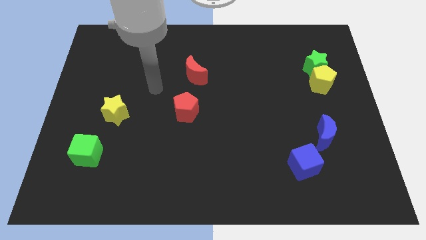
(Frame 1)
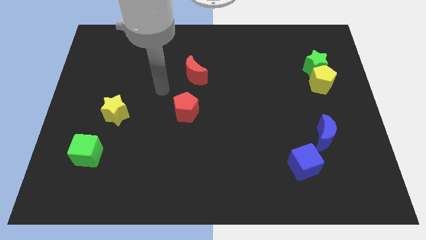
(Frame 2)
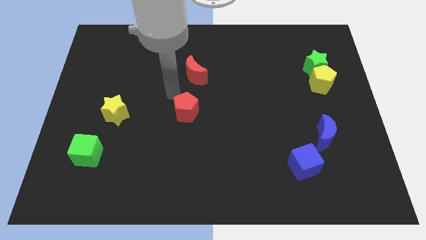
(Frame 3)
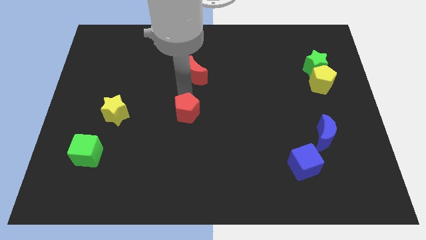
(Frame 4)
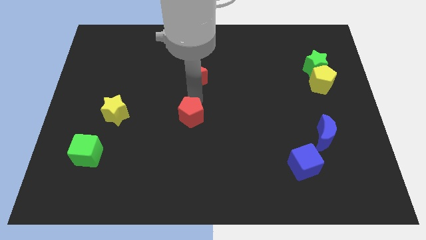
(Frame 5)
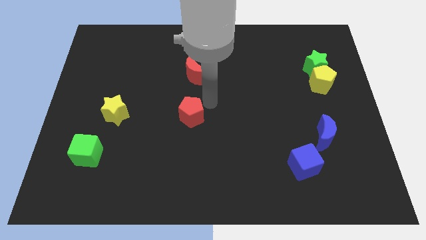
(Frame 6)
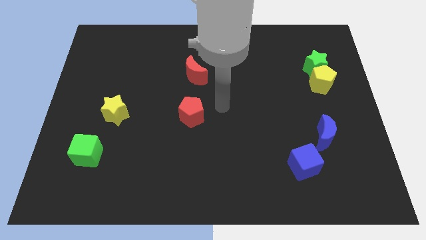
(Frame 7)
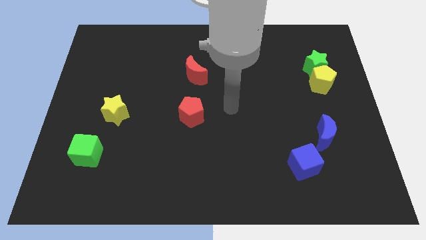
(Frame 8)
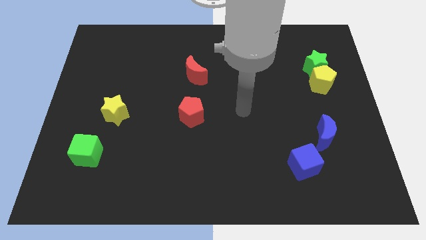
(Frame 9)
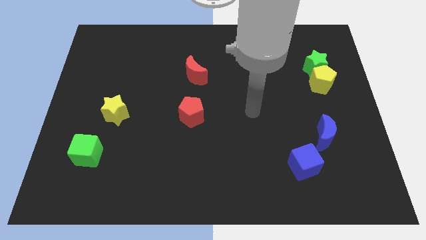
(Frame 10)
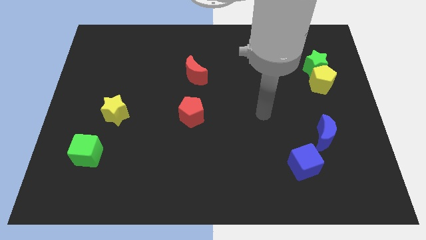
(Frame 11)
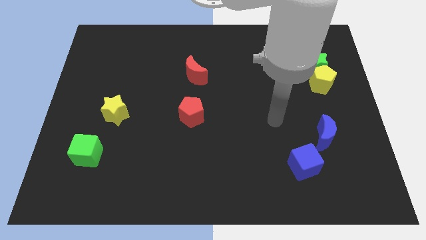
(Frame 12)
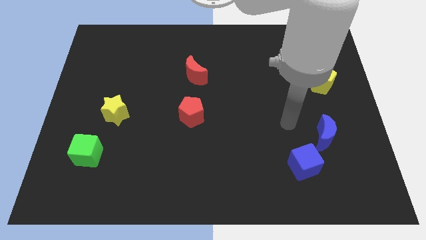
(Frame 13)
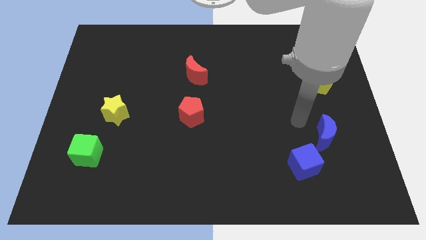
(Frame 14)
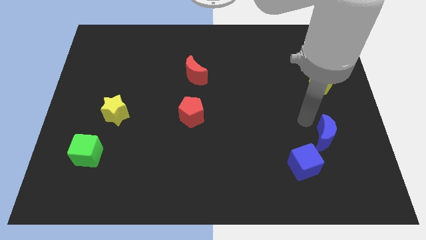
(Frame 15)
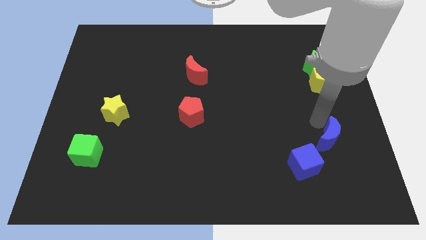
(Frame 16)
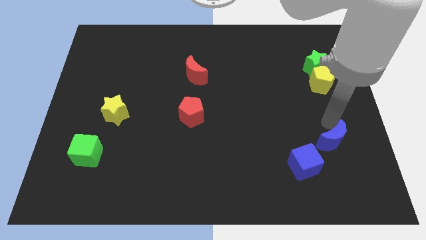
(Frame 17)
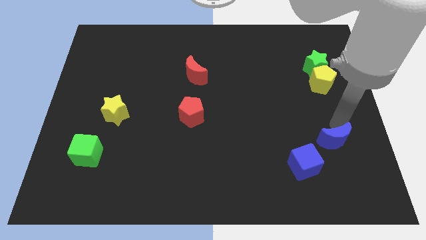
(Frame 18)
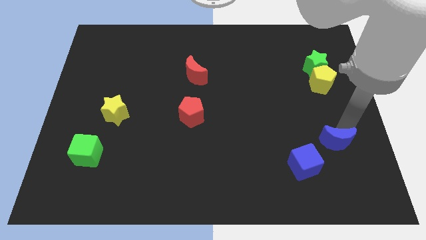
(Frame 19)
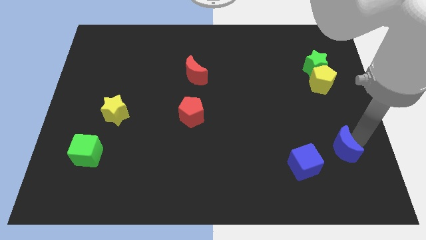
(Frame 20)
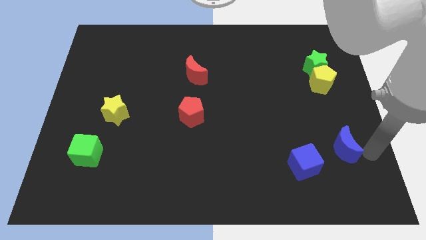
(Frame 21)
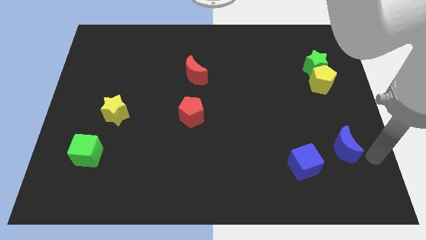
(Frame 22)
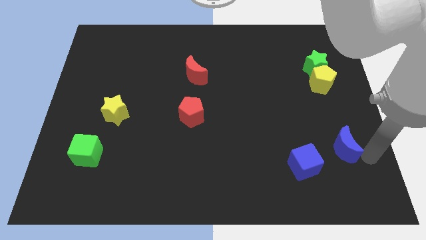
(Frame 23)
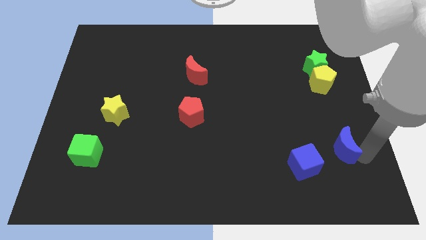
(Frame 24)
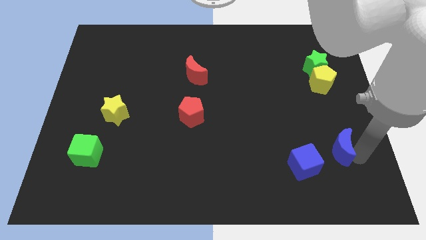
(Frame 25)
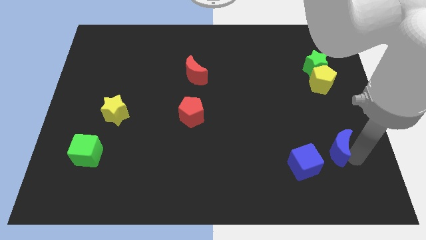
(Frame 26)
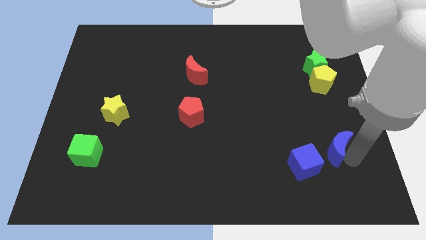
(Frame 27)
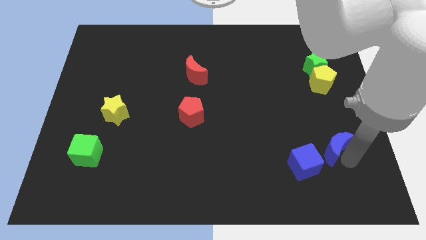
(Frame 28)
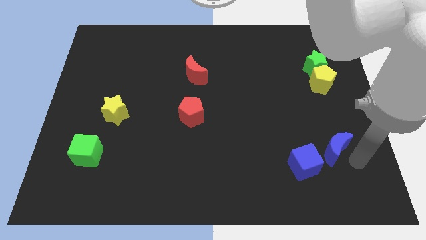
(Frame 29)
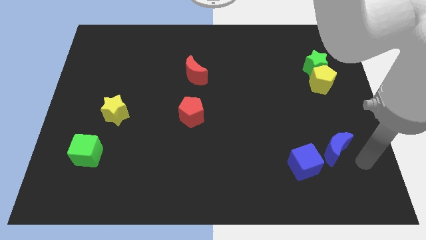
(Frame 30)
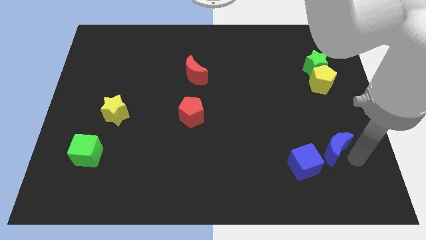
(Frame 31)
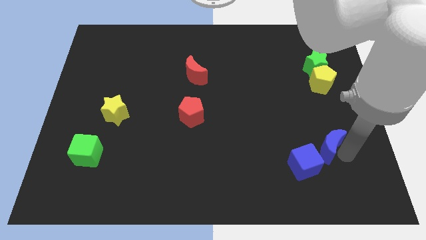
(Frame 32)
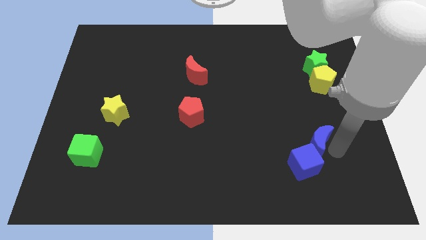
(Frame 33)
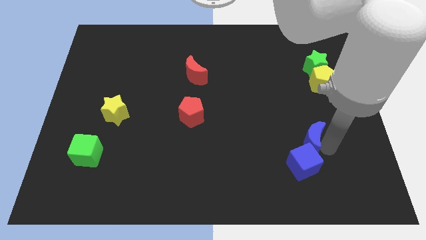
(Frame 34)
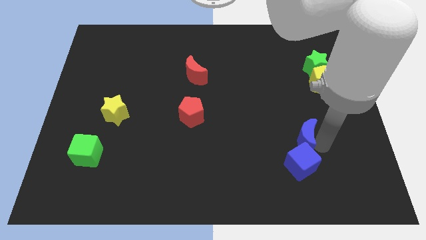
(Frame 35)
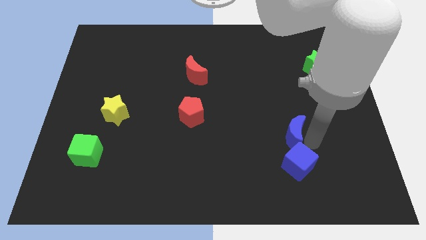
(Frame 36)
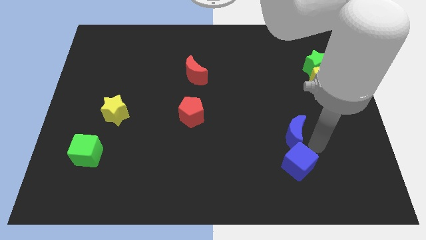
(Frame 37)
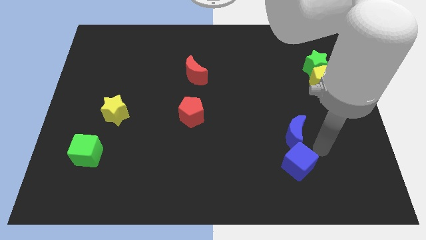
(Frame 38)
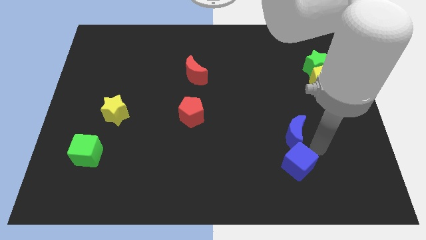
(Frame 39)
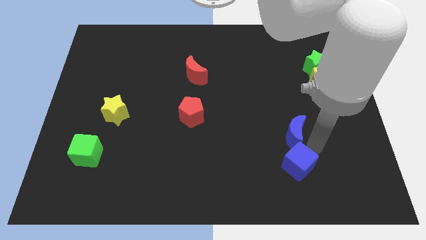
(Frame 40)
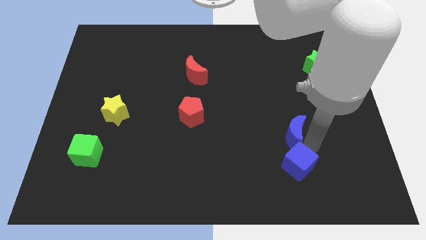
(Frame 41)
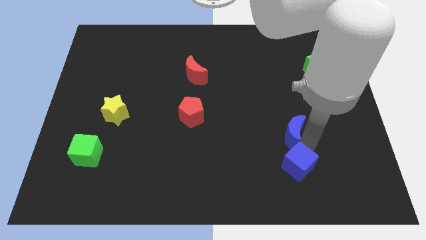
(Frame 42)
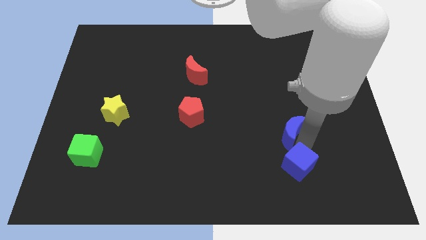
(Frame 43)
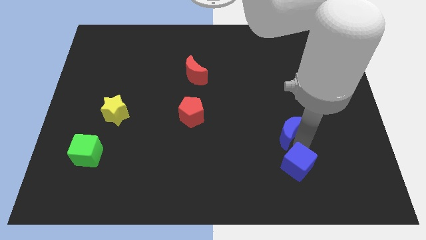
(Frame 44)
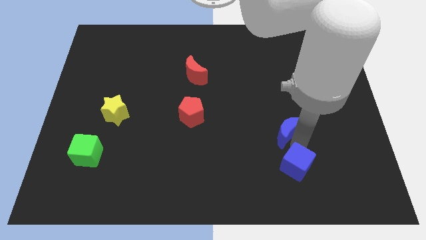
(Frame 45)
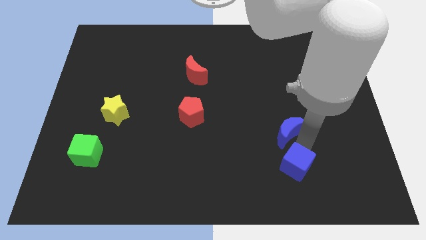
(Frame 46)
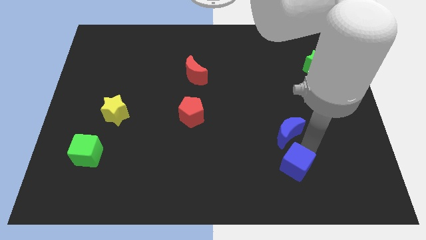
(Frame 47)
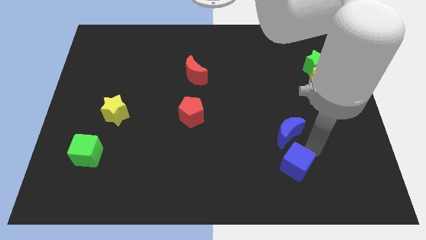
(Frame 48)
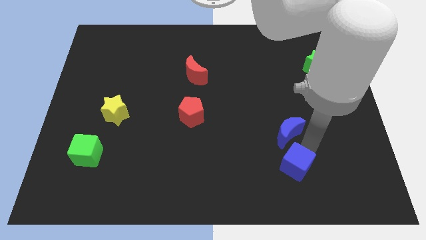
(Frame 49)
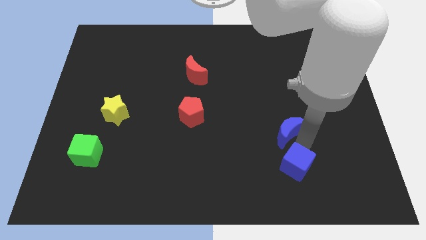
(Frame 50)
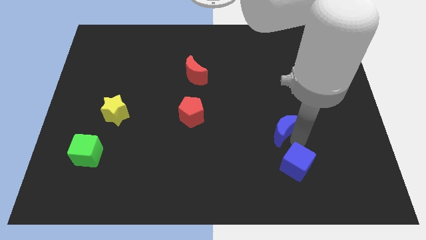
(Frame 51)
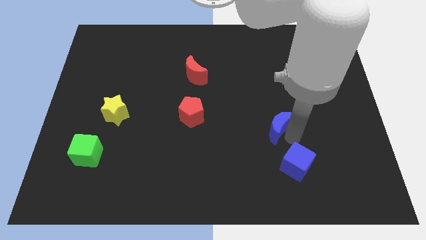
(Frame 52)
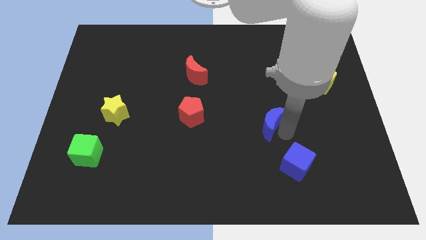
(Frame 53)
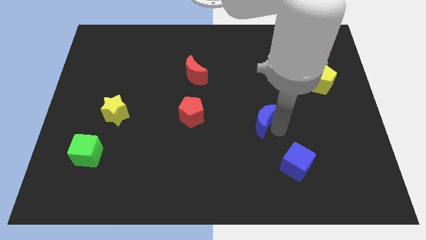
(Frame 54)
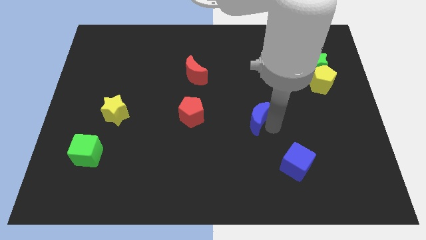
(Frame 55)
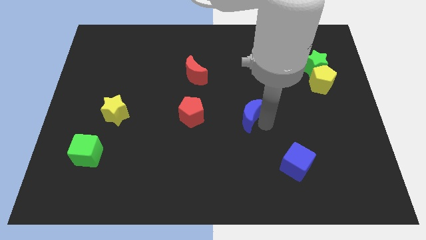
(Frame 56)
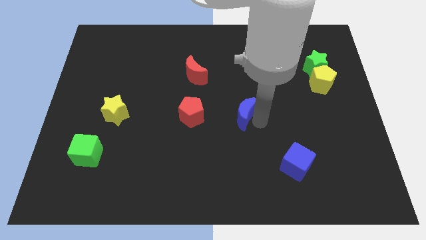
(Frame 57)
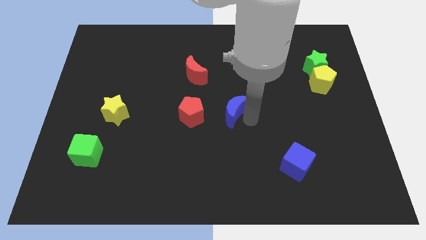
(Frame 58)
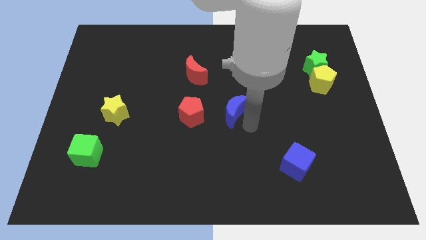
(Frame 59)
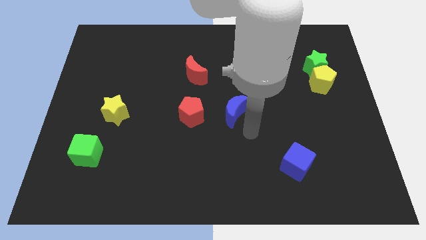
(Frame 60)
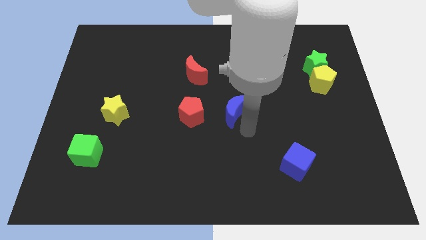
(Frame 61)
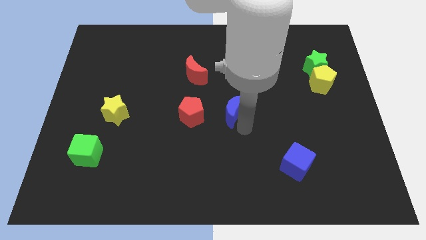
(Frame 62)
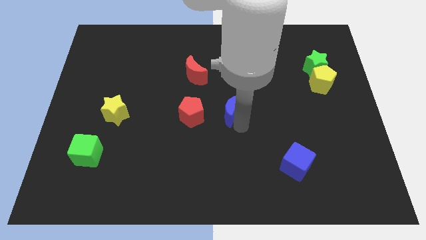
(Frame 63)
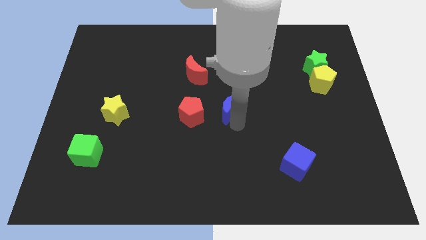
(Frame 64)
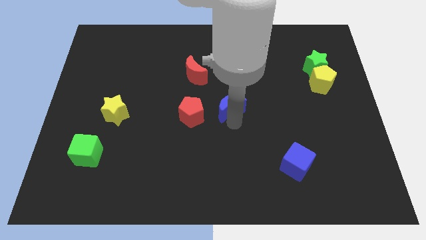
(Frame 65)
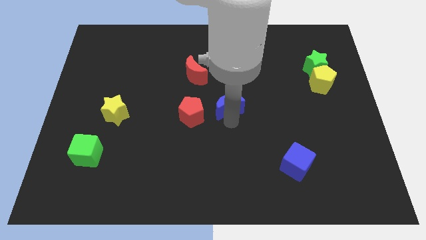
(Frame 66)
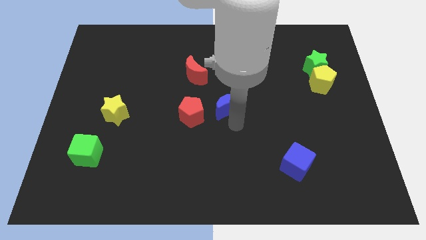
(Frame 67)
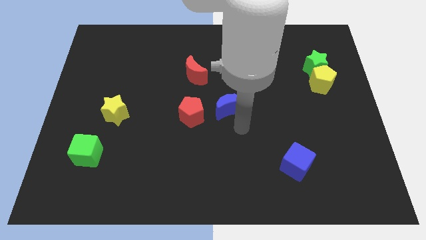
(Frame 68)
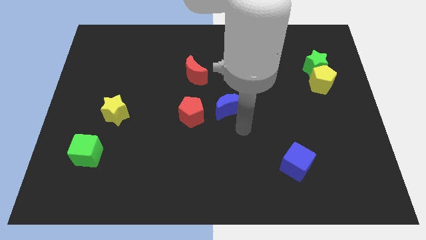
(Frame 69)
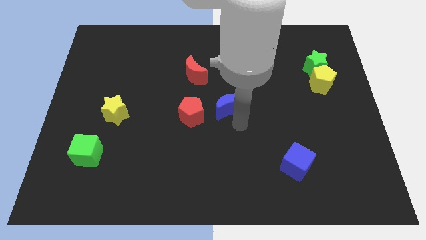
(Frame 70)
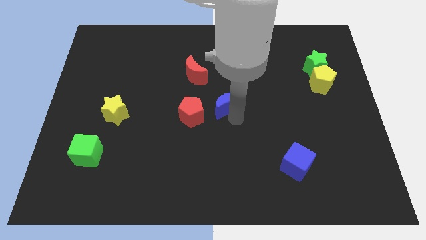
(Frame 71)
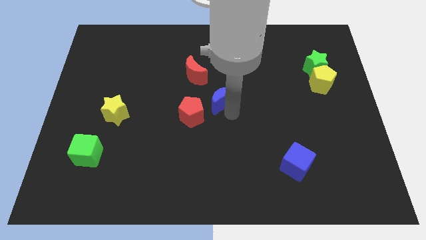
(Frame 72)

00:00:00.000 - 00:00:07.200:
move the blue moon diagonally down and to the right of the red moon
